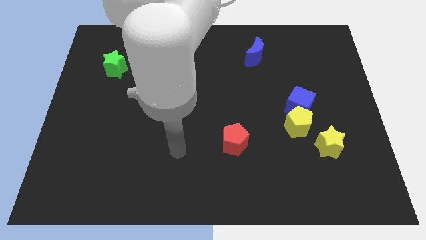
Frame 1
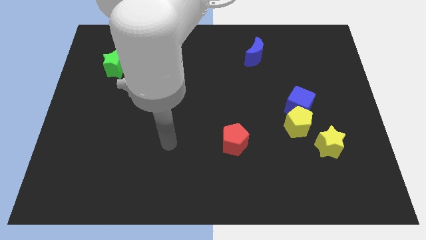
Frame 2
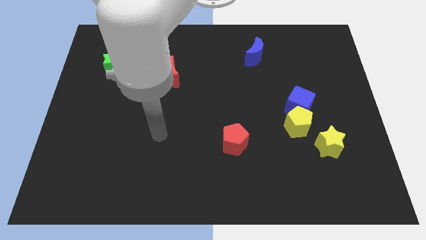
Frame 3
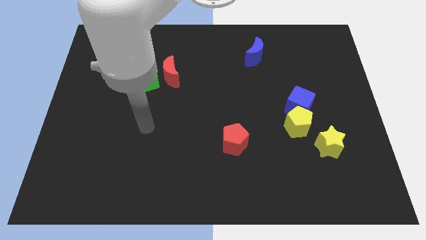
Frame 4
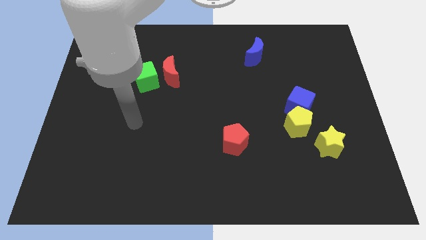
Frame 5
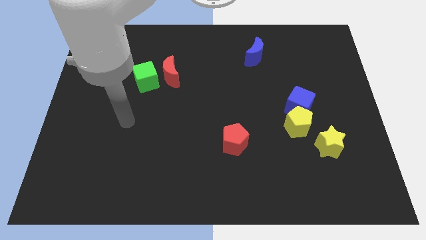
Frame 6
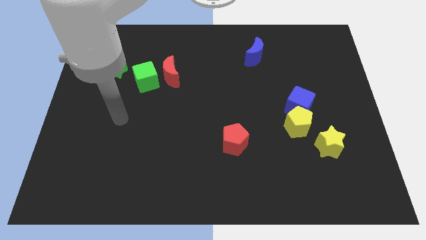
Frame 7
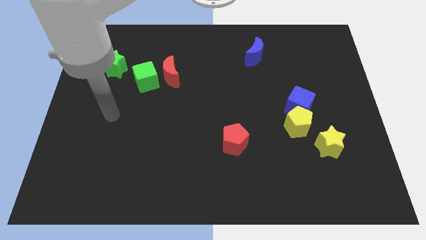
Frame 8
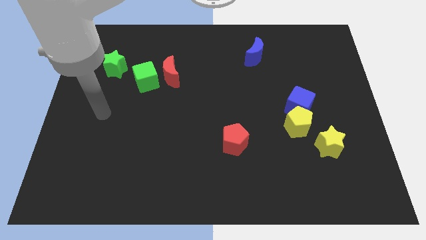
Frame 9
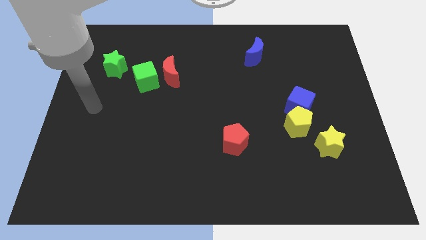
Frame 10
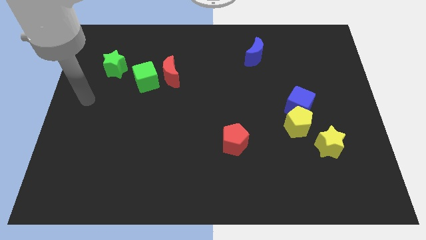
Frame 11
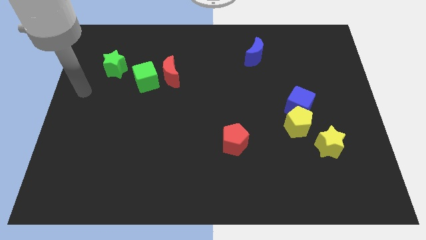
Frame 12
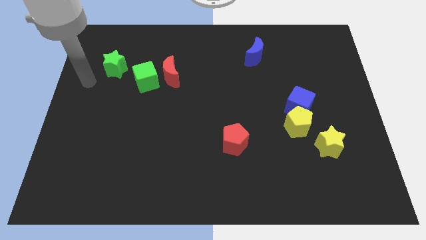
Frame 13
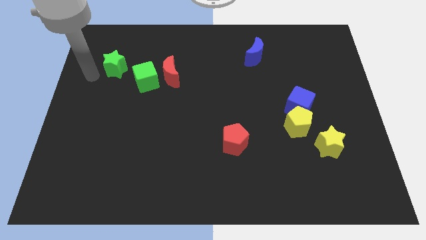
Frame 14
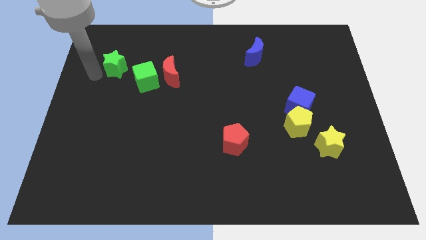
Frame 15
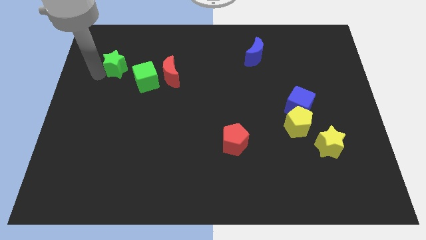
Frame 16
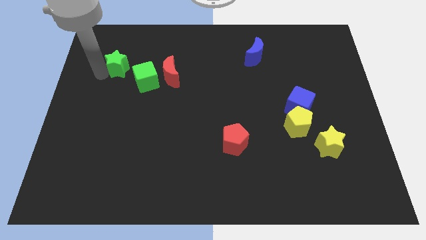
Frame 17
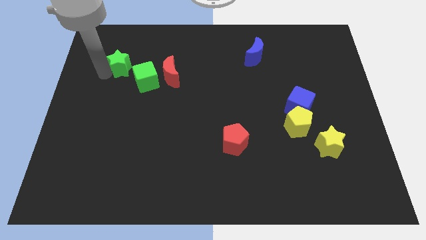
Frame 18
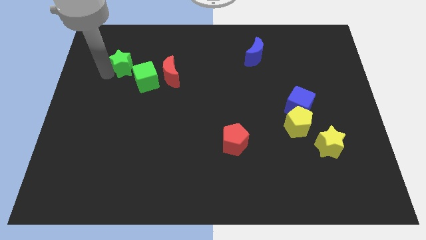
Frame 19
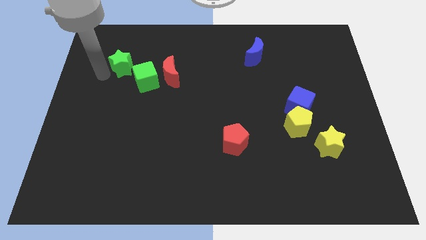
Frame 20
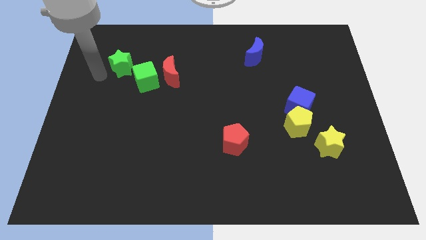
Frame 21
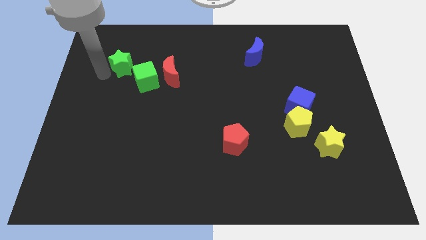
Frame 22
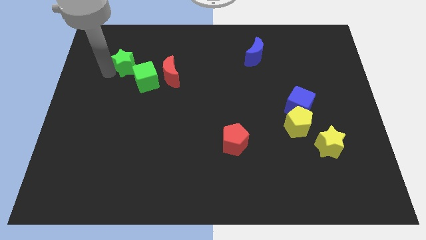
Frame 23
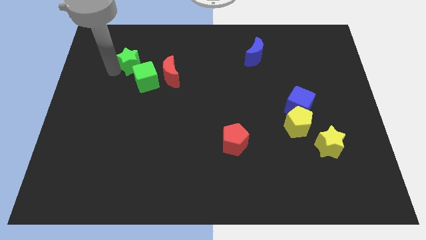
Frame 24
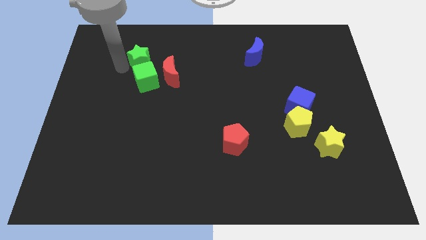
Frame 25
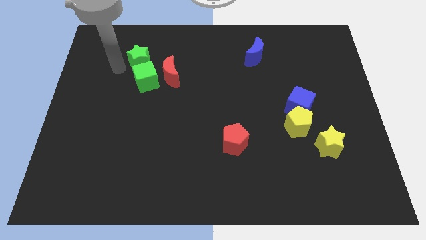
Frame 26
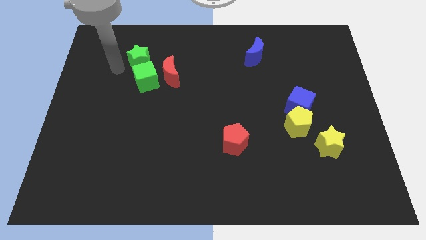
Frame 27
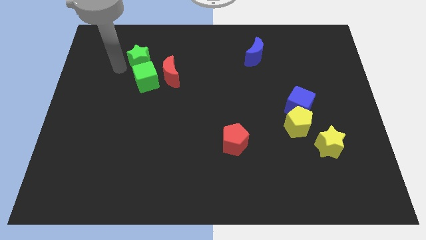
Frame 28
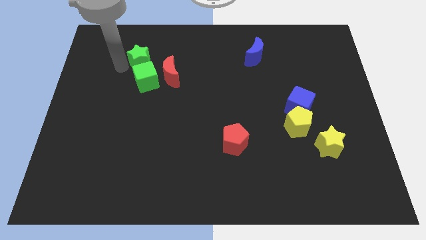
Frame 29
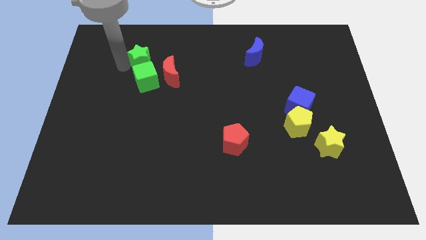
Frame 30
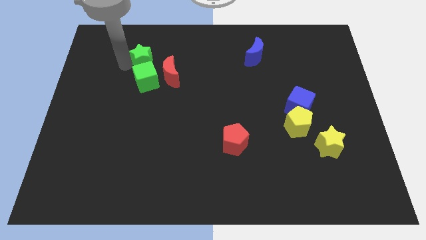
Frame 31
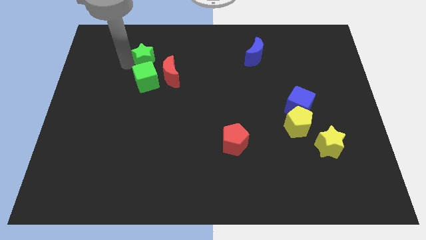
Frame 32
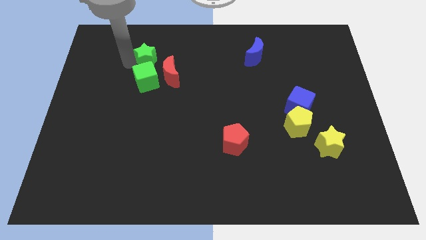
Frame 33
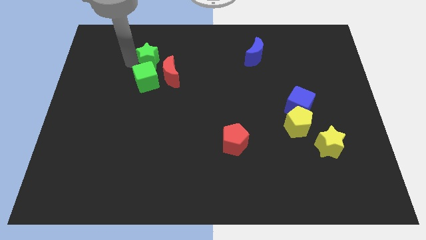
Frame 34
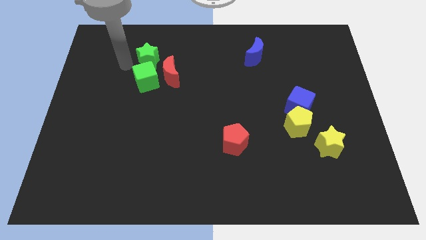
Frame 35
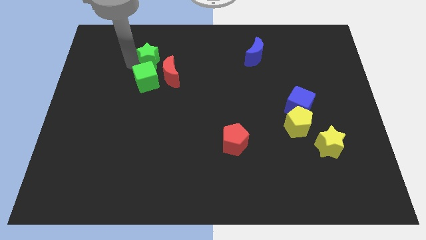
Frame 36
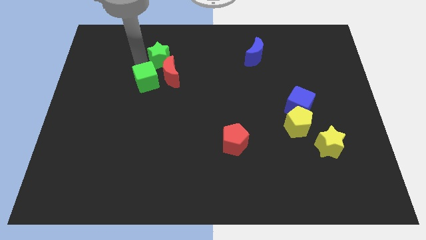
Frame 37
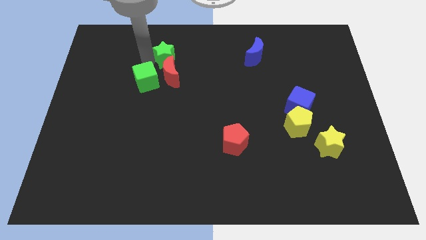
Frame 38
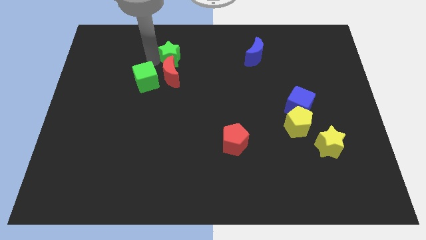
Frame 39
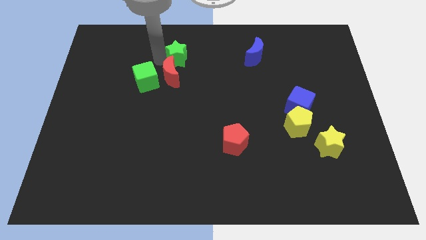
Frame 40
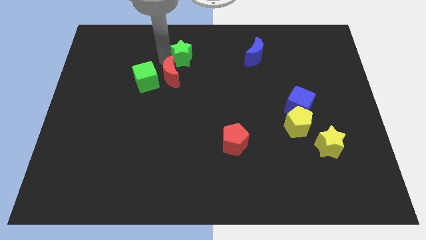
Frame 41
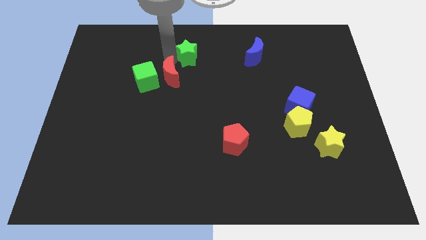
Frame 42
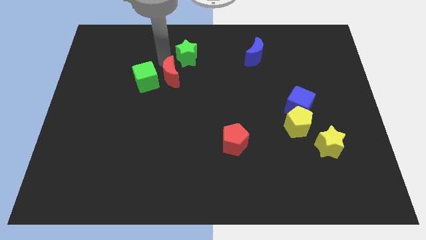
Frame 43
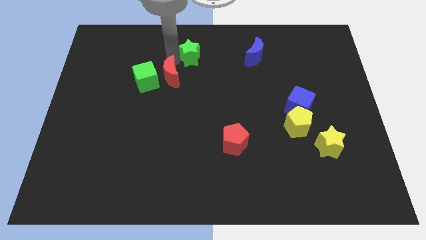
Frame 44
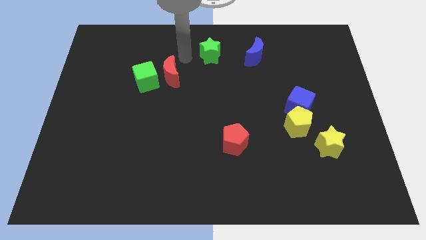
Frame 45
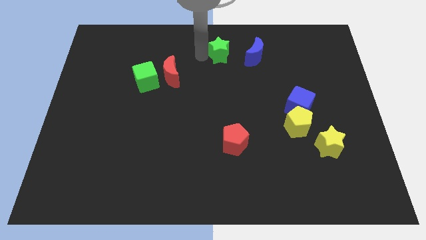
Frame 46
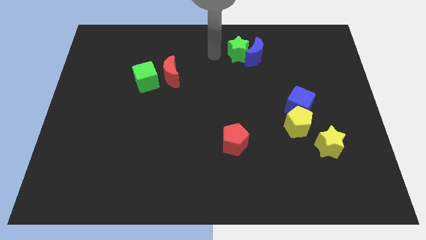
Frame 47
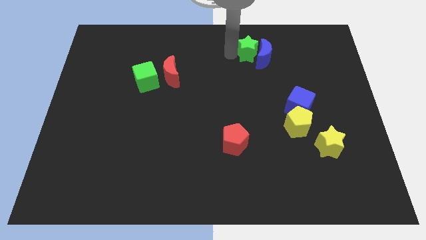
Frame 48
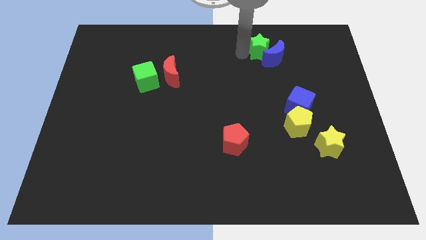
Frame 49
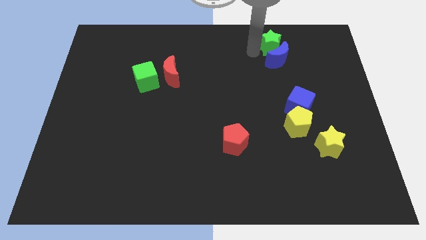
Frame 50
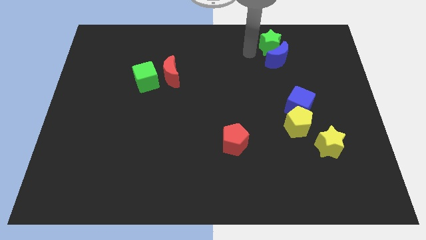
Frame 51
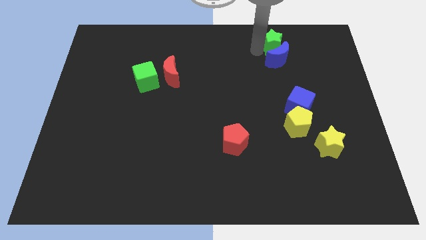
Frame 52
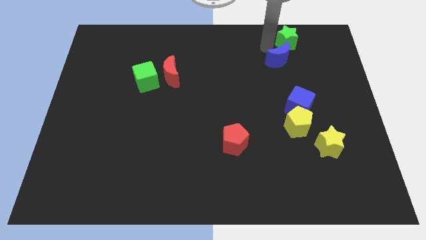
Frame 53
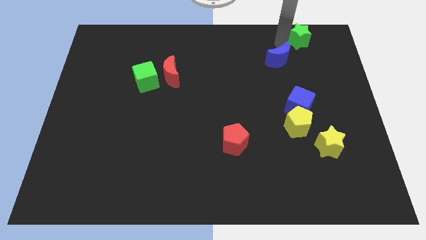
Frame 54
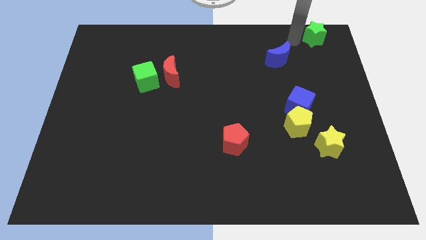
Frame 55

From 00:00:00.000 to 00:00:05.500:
push the green star to the upper right corner
